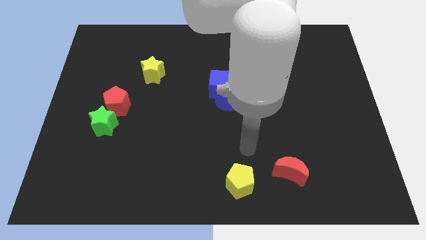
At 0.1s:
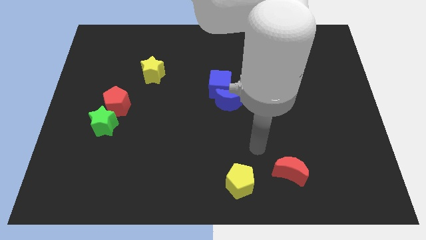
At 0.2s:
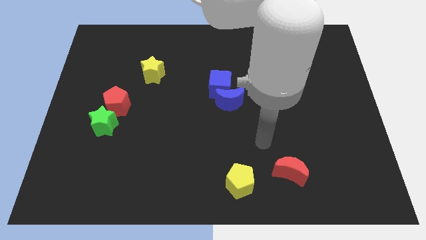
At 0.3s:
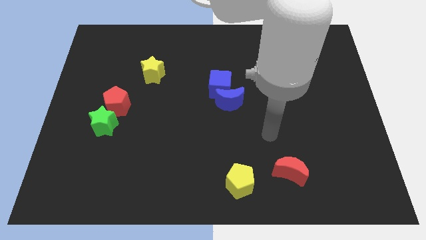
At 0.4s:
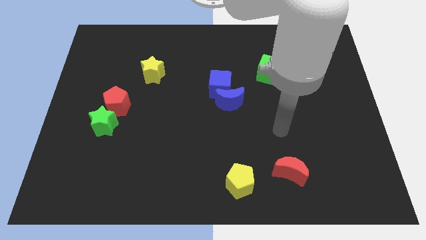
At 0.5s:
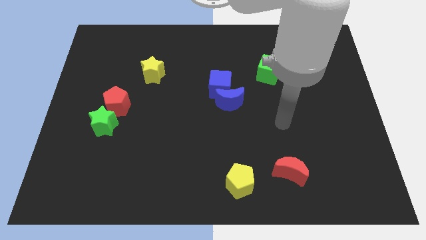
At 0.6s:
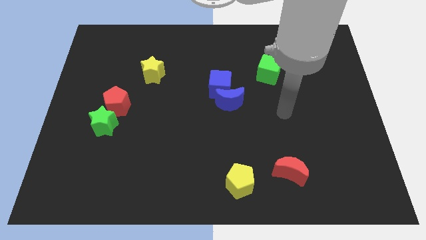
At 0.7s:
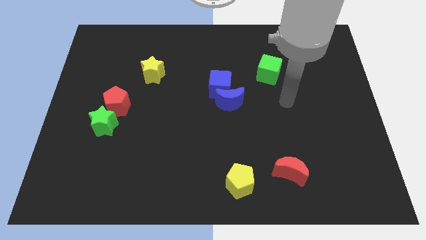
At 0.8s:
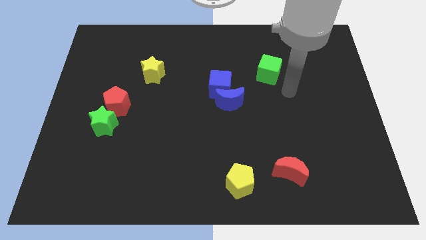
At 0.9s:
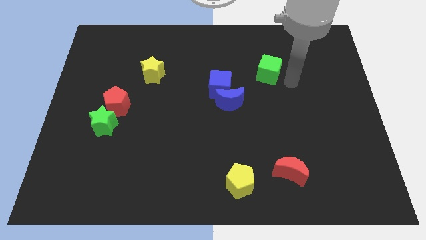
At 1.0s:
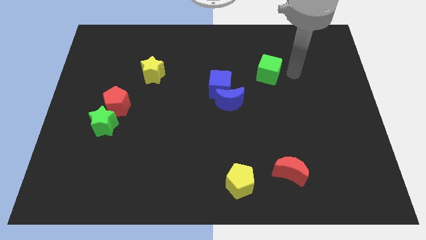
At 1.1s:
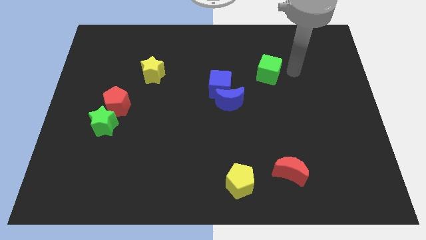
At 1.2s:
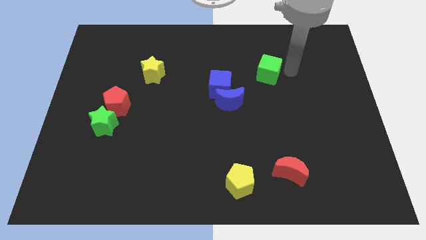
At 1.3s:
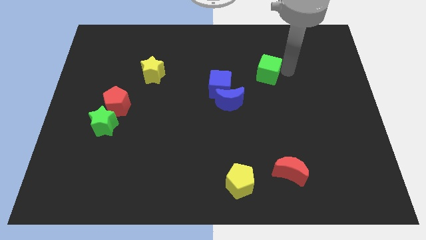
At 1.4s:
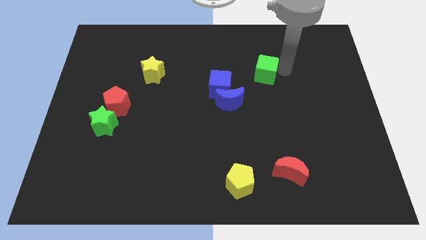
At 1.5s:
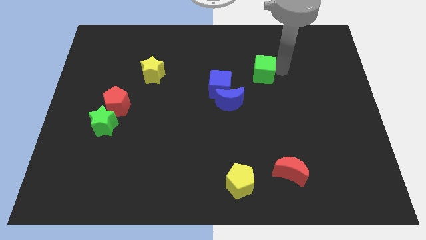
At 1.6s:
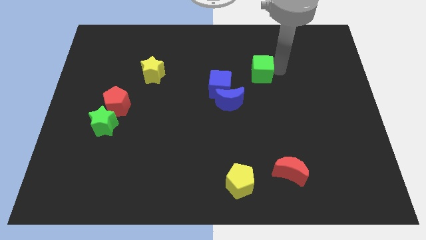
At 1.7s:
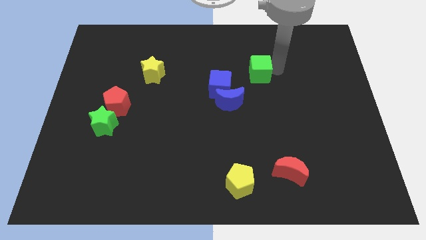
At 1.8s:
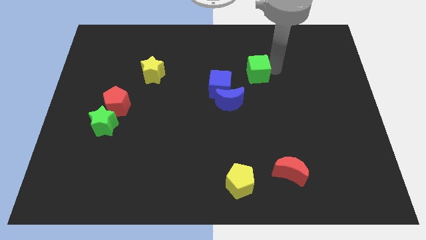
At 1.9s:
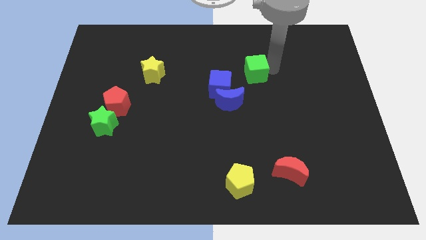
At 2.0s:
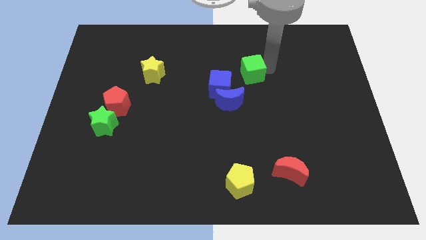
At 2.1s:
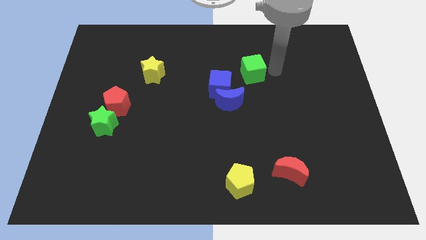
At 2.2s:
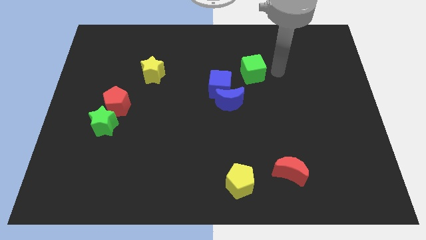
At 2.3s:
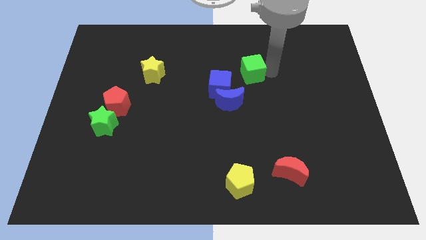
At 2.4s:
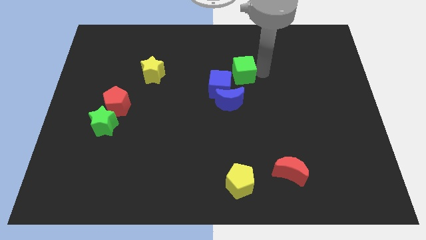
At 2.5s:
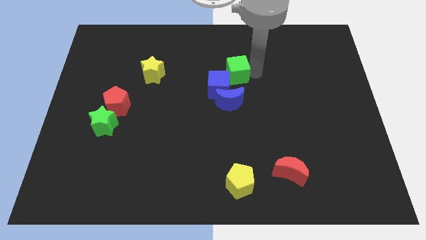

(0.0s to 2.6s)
slightly push the green cube to the left

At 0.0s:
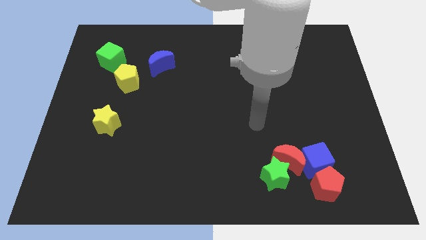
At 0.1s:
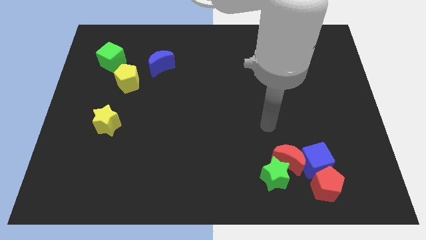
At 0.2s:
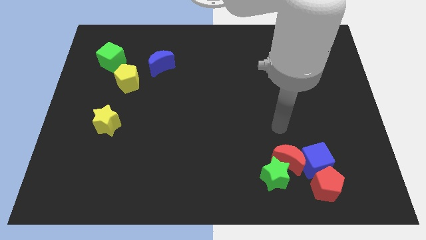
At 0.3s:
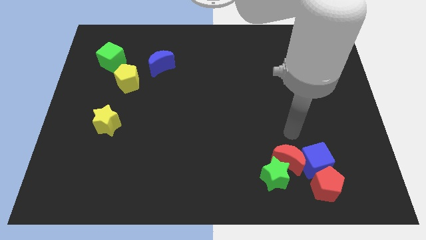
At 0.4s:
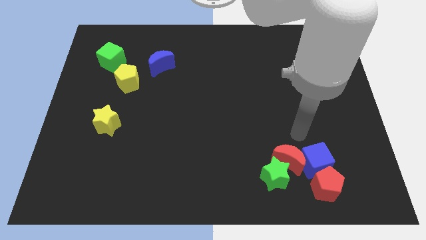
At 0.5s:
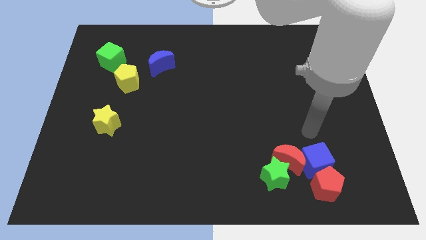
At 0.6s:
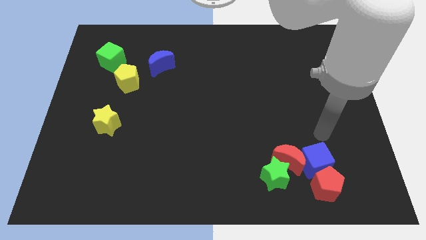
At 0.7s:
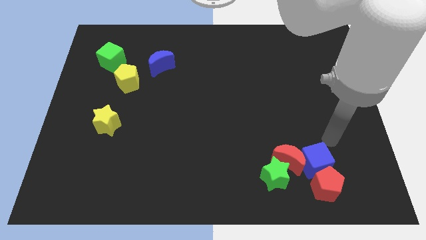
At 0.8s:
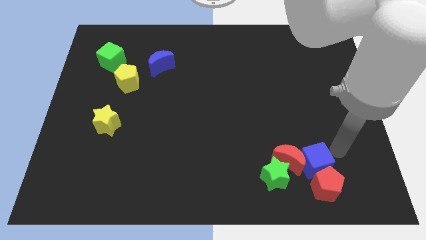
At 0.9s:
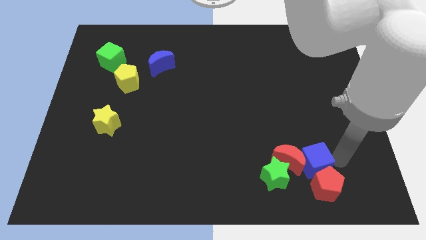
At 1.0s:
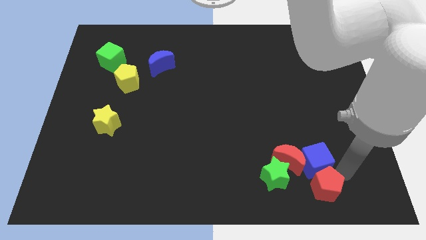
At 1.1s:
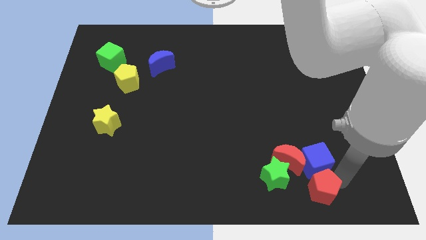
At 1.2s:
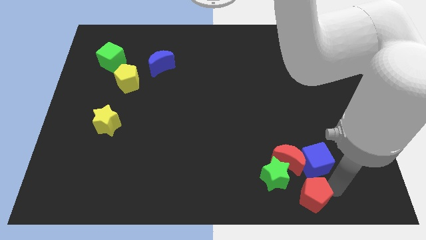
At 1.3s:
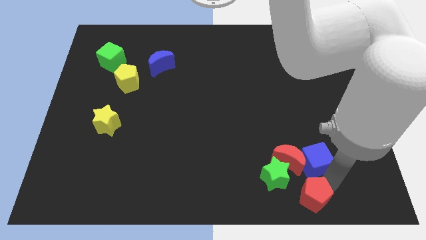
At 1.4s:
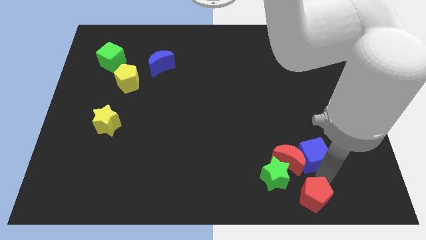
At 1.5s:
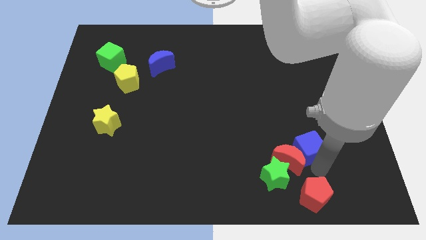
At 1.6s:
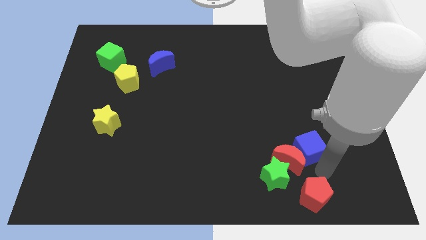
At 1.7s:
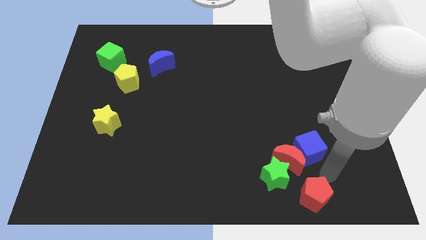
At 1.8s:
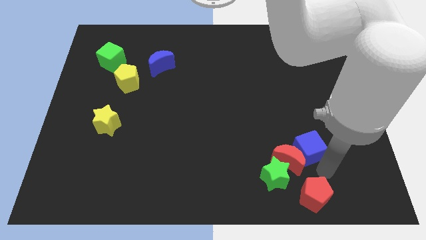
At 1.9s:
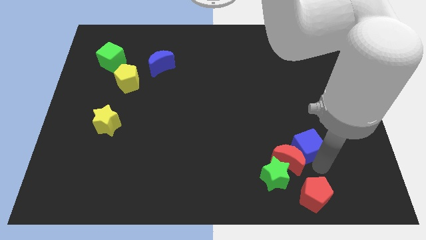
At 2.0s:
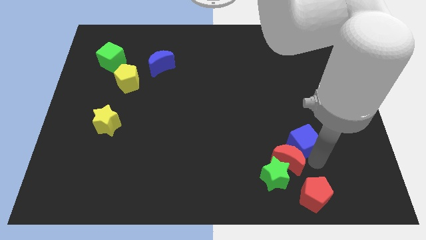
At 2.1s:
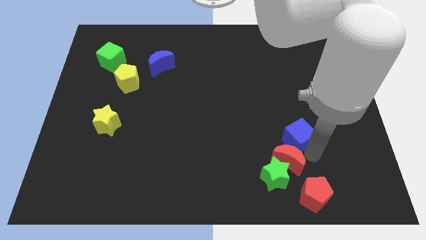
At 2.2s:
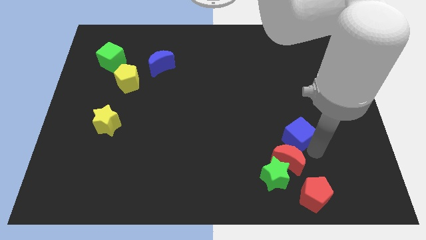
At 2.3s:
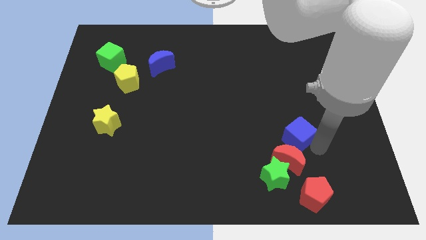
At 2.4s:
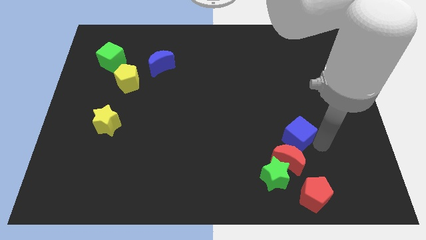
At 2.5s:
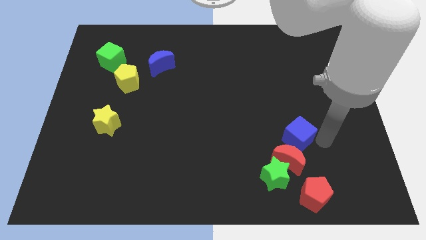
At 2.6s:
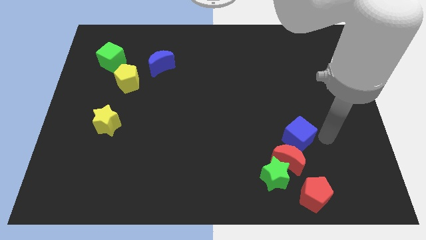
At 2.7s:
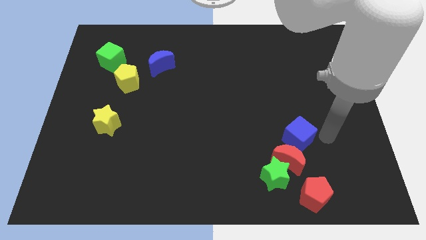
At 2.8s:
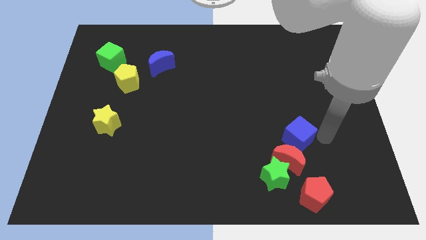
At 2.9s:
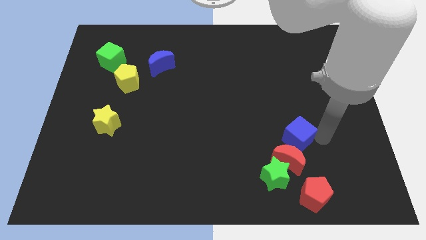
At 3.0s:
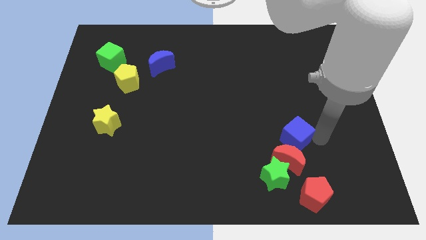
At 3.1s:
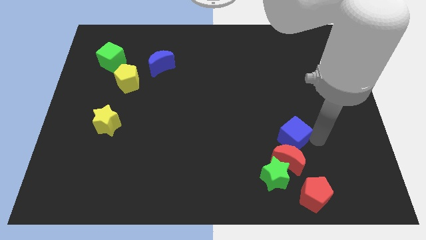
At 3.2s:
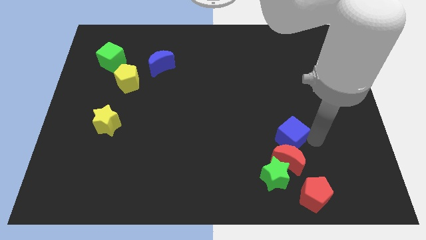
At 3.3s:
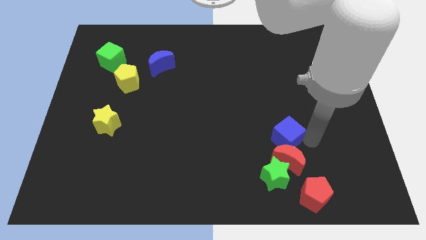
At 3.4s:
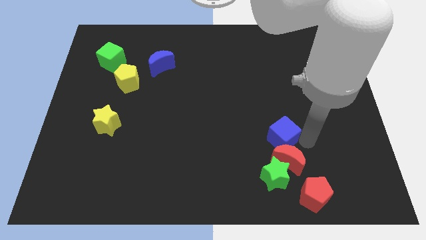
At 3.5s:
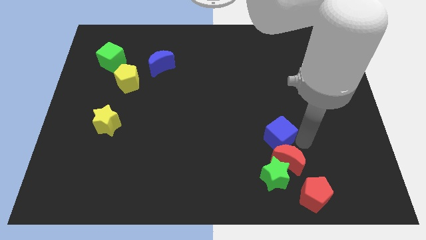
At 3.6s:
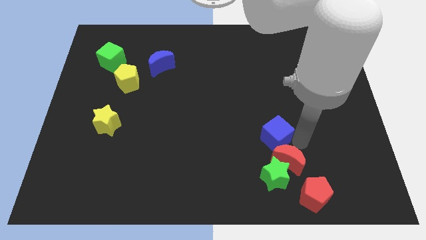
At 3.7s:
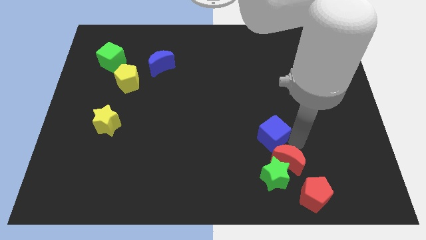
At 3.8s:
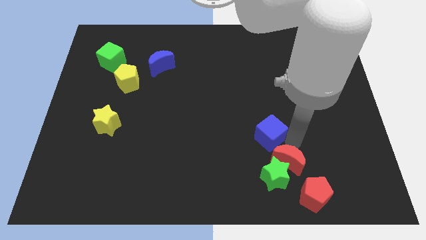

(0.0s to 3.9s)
slightly push the blue cube left

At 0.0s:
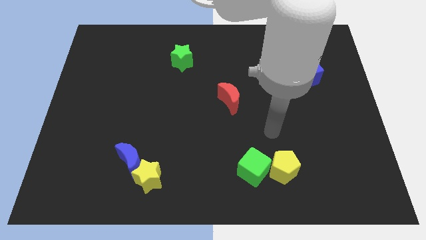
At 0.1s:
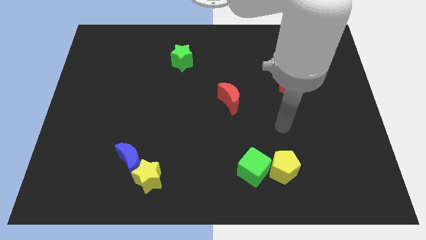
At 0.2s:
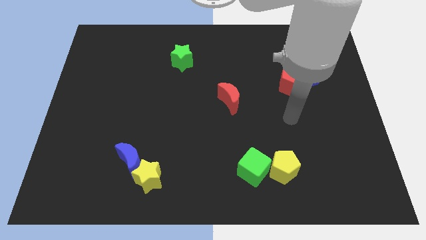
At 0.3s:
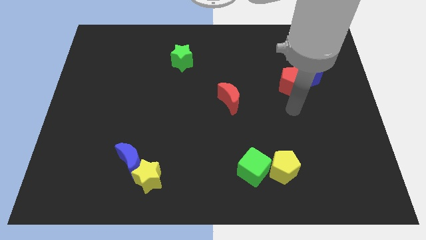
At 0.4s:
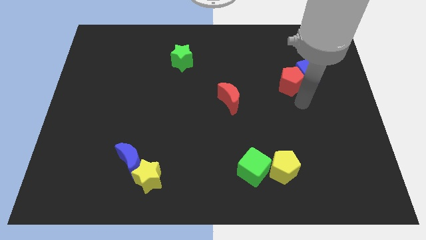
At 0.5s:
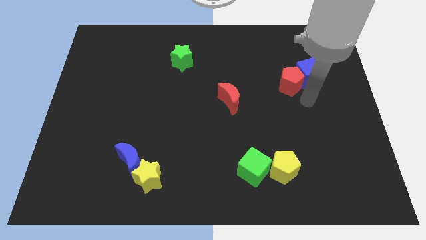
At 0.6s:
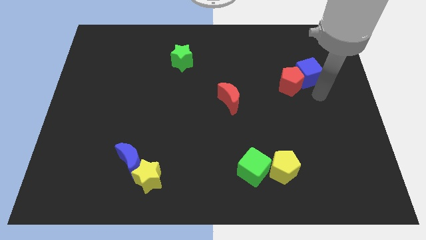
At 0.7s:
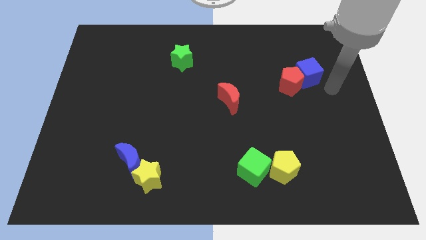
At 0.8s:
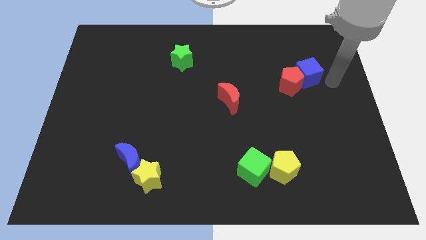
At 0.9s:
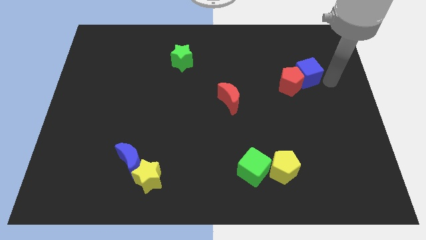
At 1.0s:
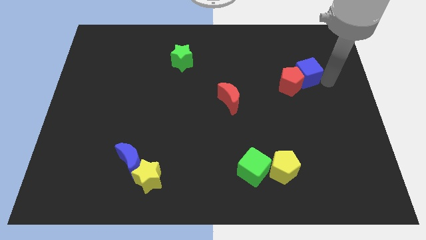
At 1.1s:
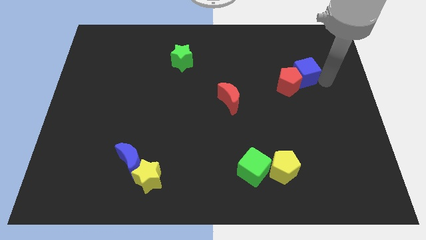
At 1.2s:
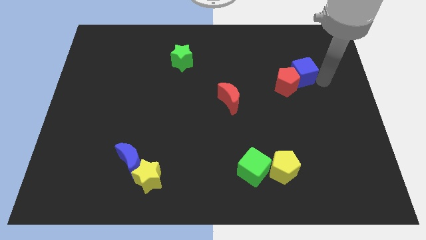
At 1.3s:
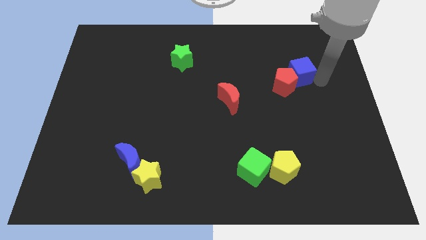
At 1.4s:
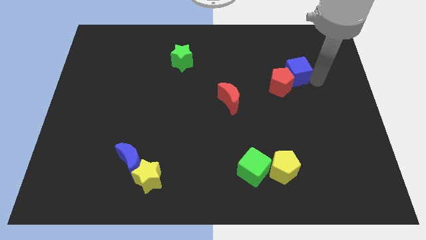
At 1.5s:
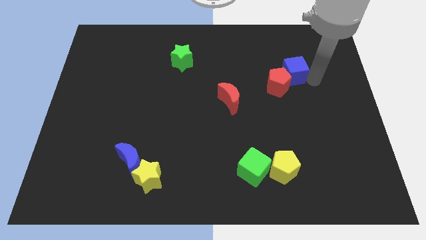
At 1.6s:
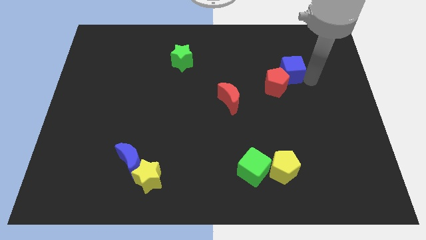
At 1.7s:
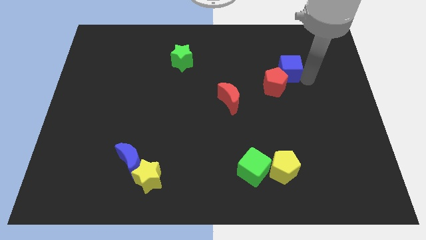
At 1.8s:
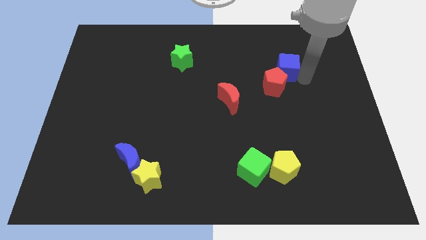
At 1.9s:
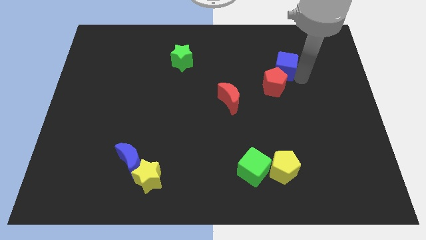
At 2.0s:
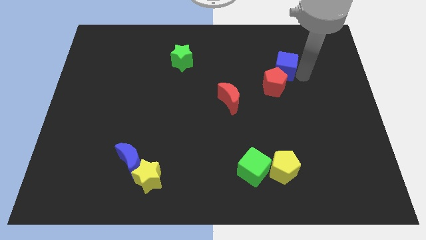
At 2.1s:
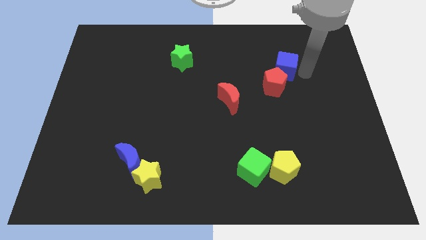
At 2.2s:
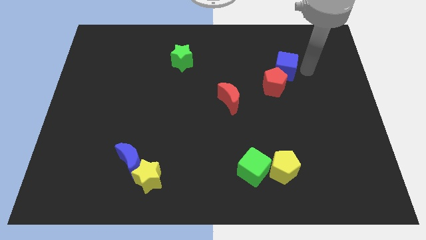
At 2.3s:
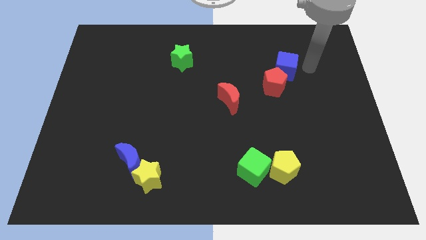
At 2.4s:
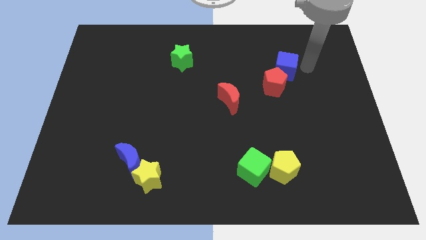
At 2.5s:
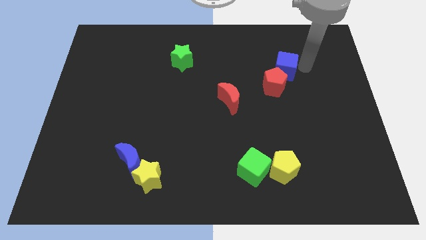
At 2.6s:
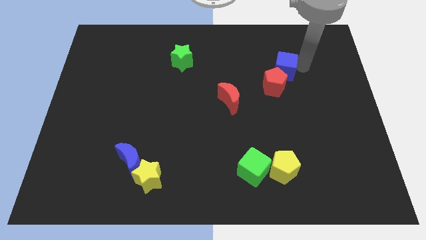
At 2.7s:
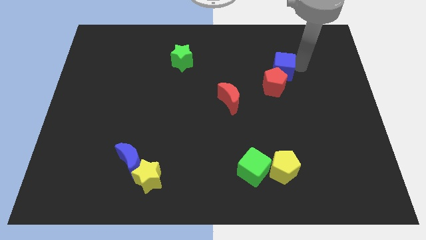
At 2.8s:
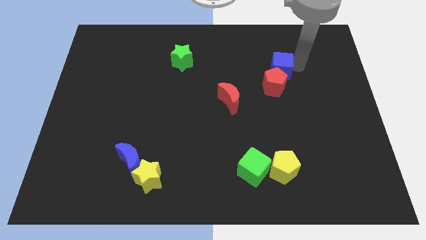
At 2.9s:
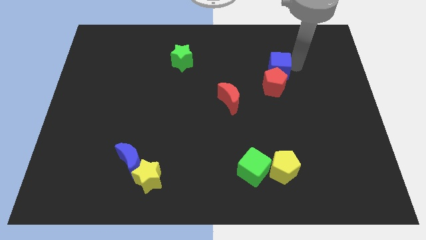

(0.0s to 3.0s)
slide the blue cube a little left
